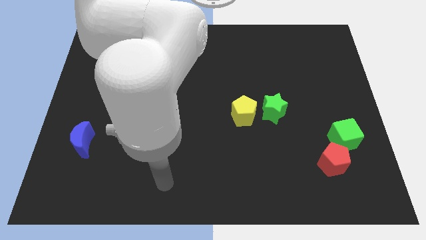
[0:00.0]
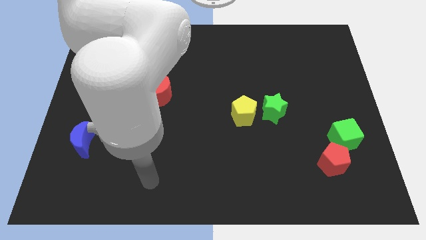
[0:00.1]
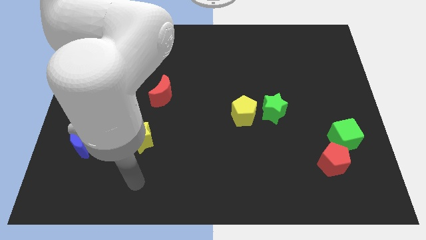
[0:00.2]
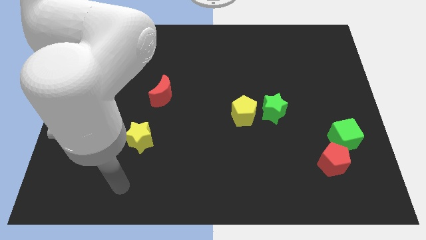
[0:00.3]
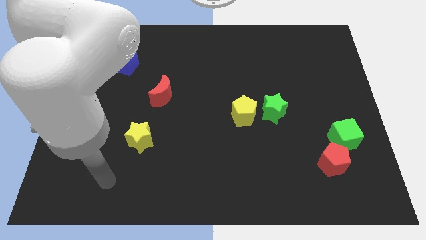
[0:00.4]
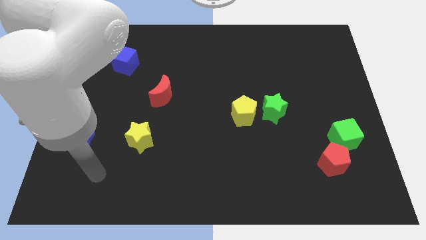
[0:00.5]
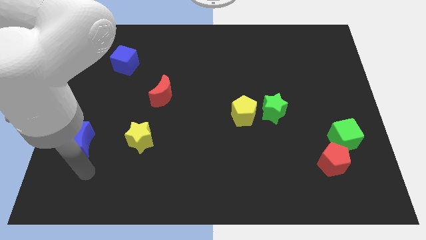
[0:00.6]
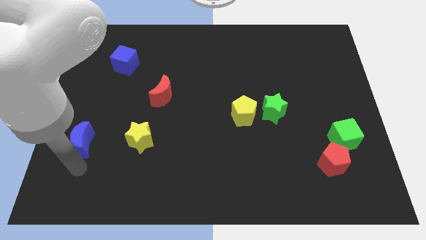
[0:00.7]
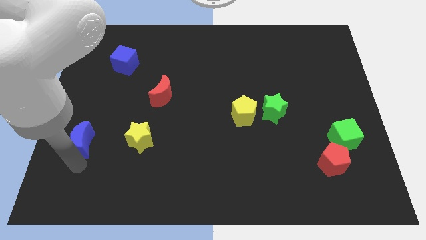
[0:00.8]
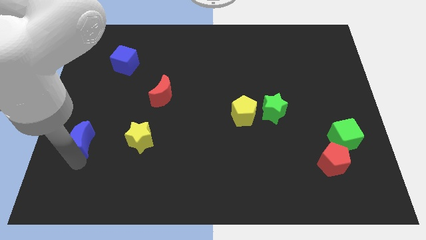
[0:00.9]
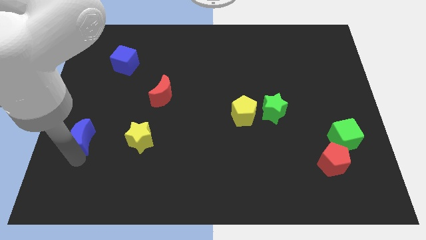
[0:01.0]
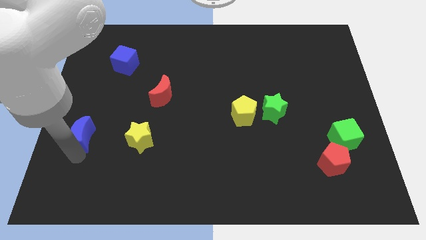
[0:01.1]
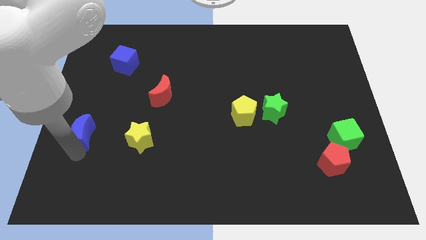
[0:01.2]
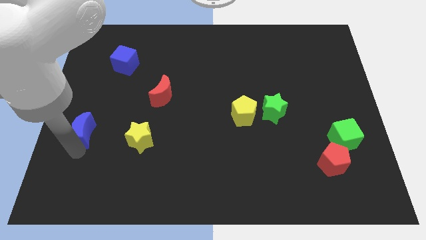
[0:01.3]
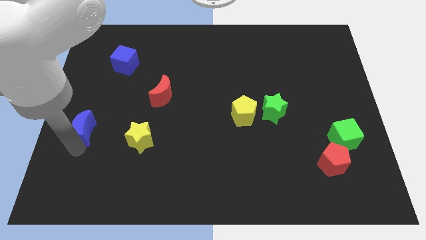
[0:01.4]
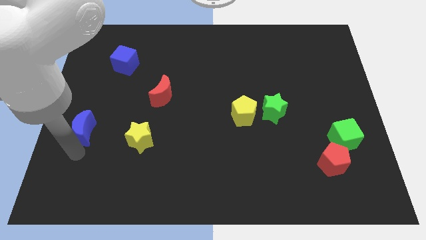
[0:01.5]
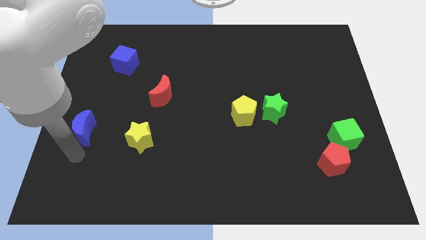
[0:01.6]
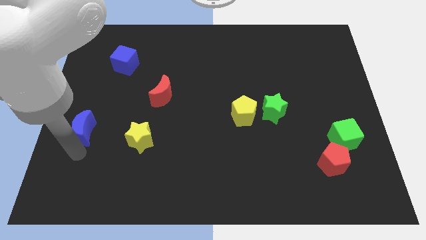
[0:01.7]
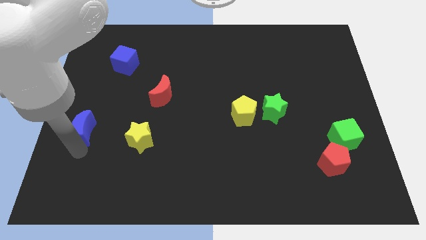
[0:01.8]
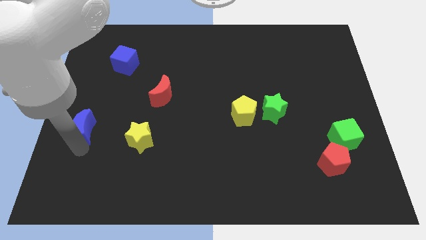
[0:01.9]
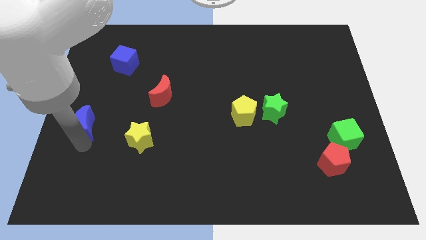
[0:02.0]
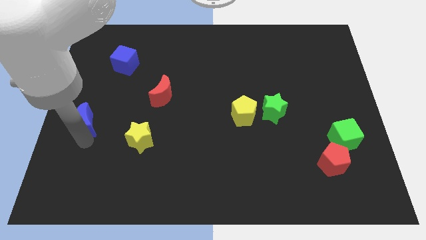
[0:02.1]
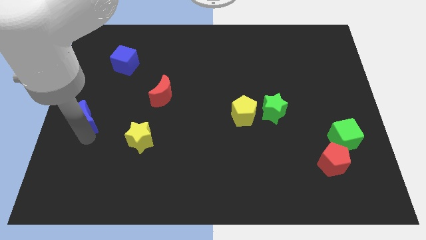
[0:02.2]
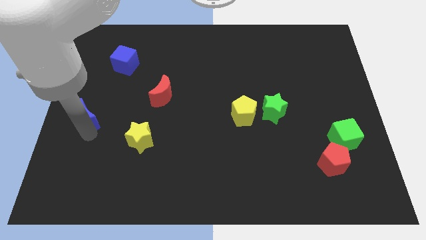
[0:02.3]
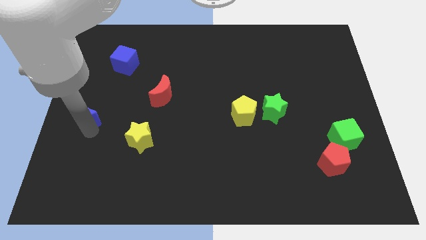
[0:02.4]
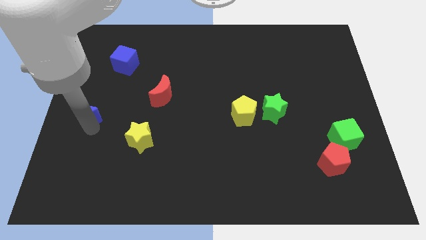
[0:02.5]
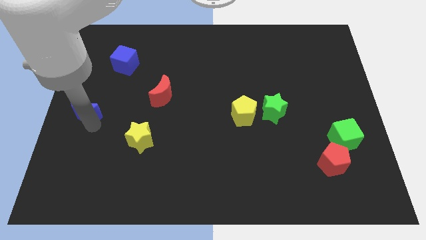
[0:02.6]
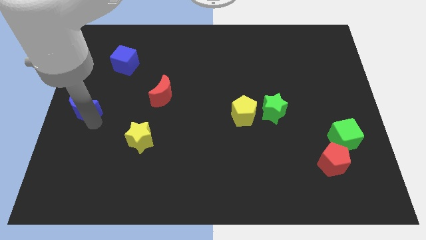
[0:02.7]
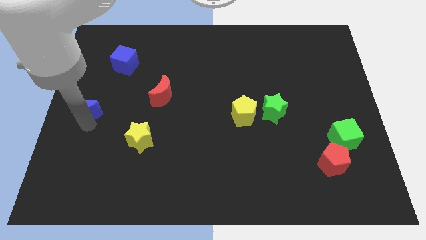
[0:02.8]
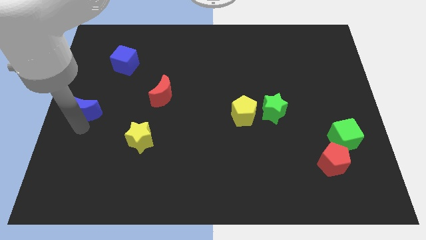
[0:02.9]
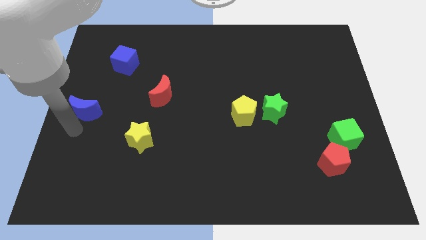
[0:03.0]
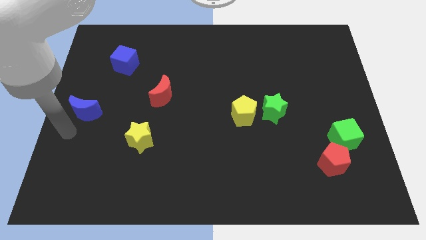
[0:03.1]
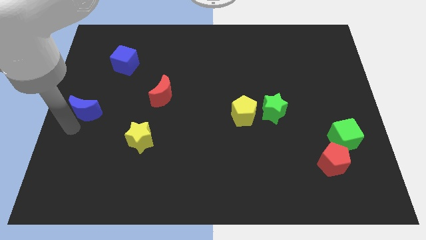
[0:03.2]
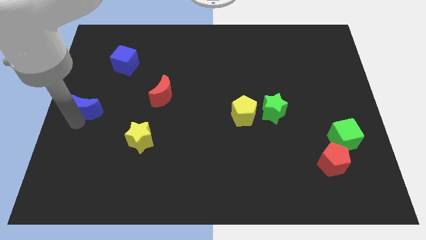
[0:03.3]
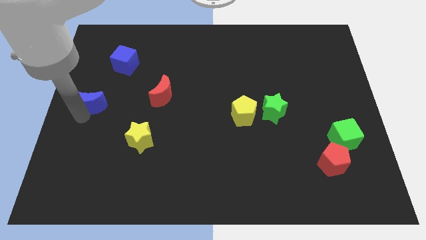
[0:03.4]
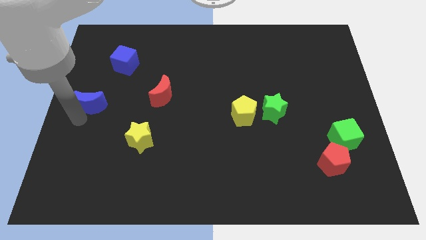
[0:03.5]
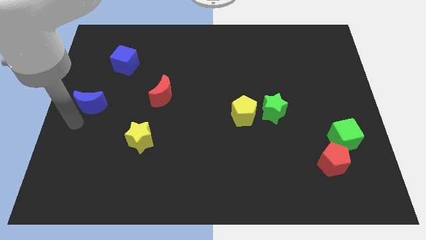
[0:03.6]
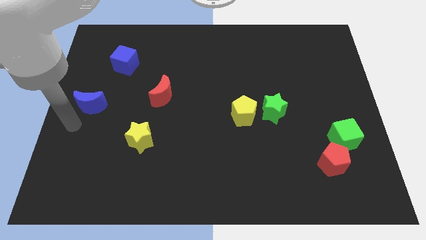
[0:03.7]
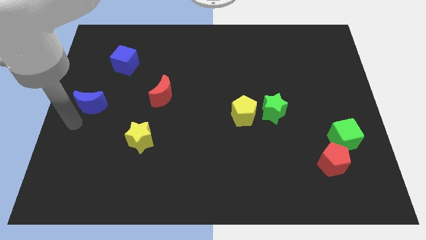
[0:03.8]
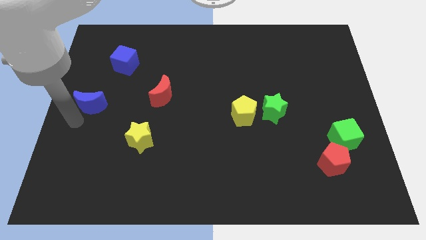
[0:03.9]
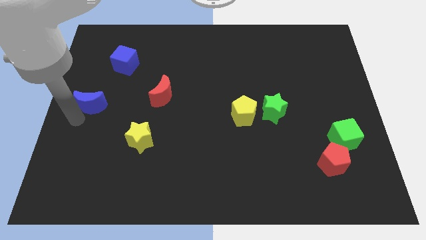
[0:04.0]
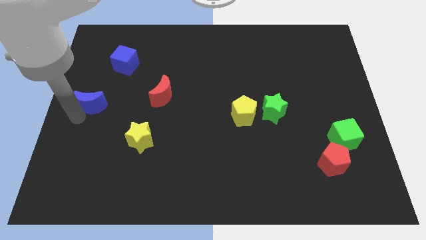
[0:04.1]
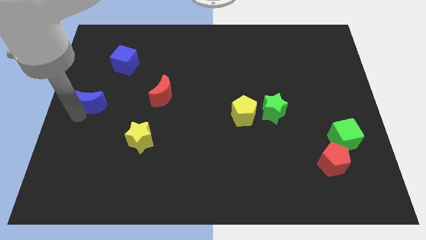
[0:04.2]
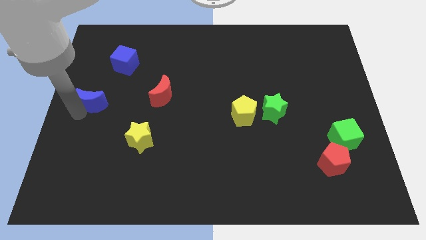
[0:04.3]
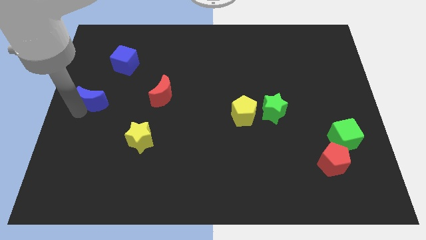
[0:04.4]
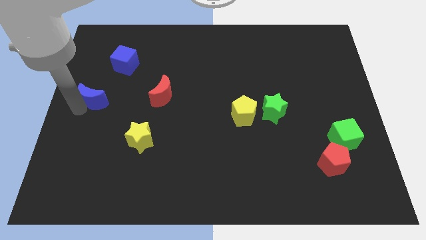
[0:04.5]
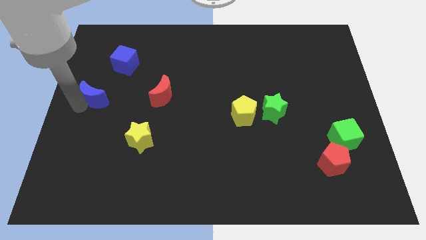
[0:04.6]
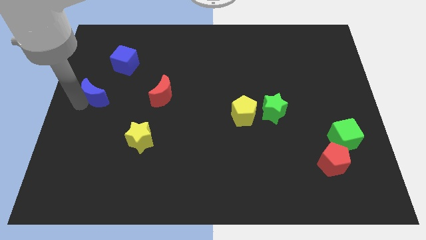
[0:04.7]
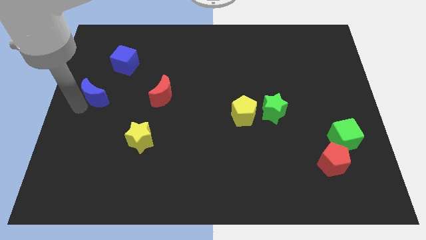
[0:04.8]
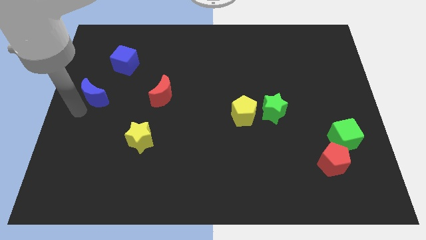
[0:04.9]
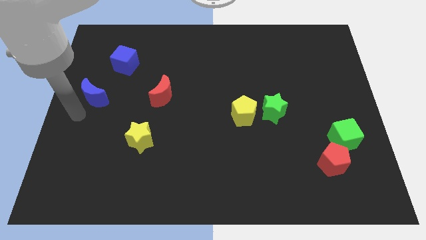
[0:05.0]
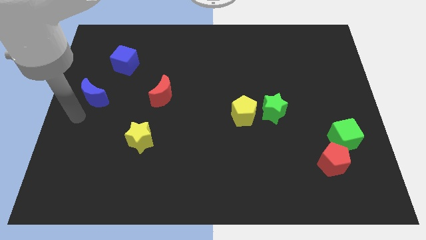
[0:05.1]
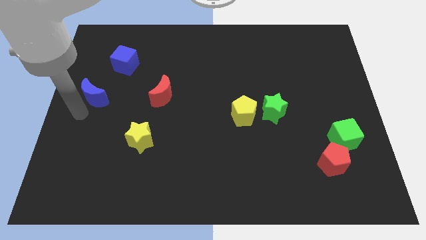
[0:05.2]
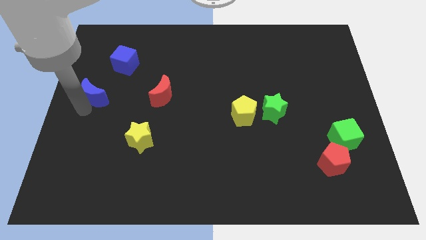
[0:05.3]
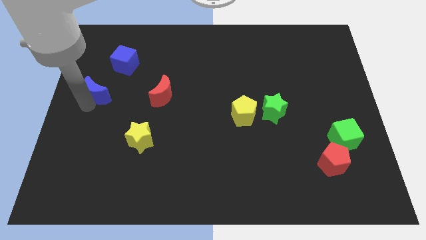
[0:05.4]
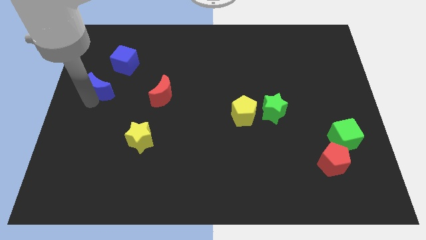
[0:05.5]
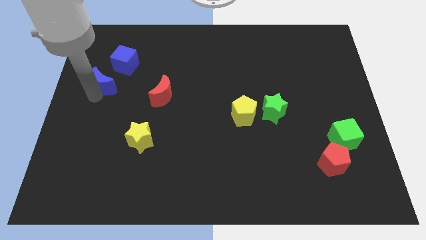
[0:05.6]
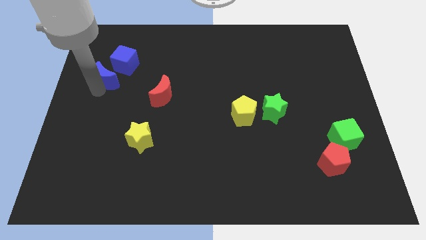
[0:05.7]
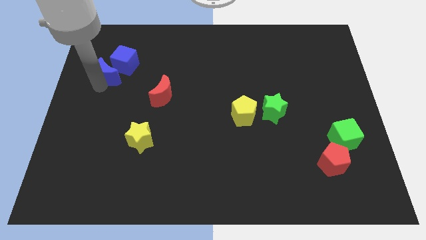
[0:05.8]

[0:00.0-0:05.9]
push the blue moon towards the blue cube

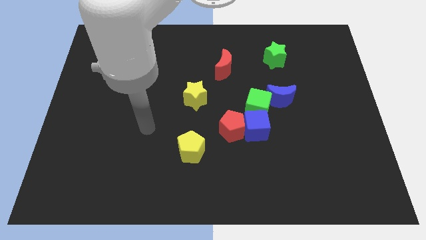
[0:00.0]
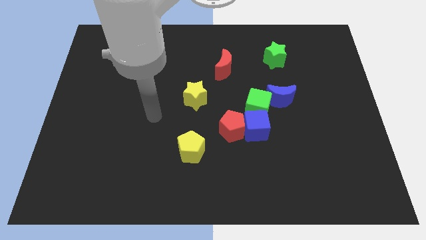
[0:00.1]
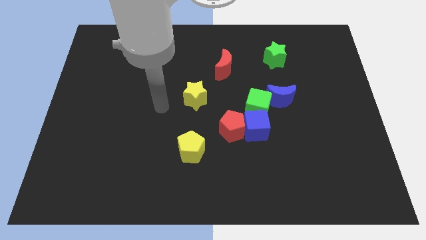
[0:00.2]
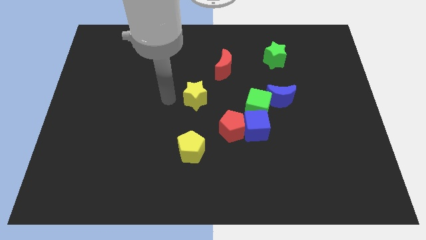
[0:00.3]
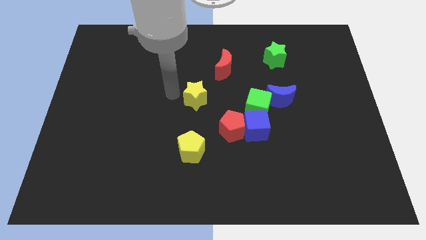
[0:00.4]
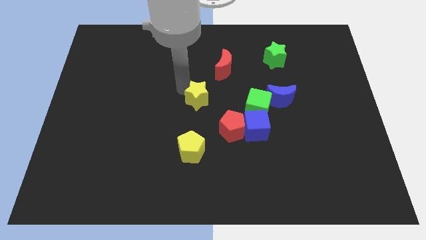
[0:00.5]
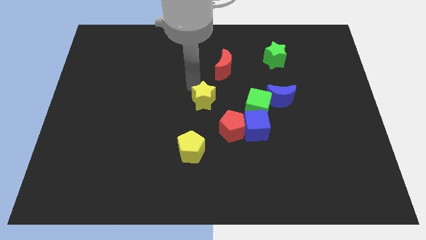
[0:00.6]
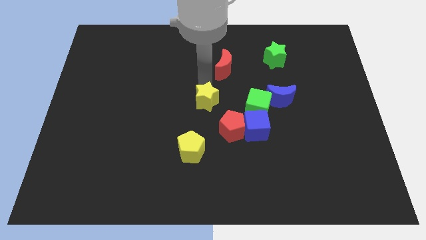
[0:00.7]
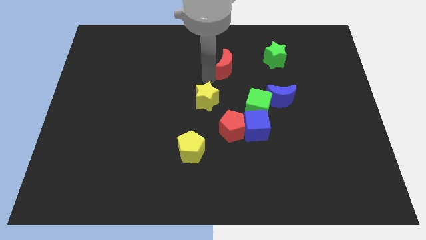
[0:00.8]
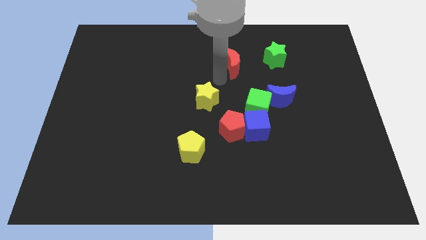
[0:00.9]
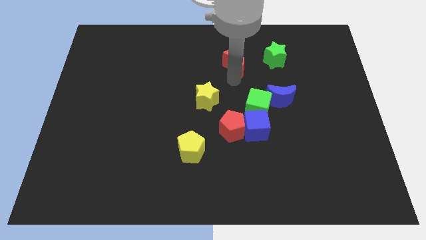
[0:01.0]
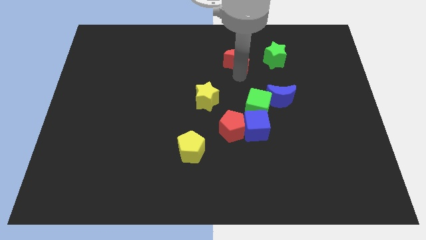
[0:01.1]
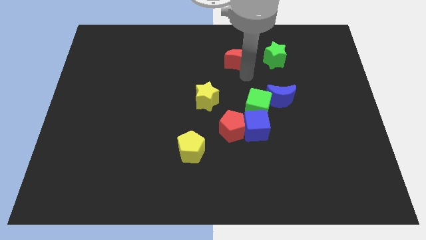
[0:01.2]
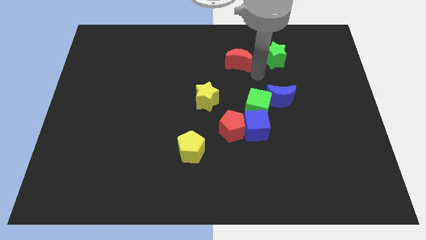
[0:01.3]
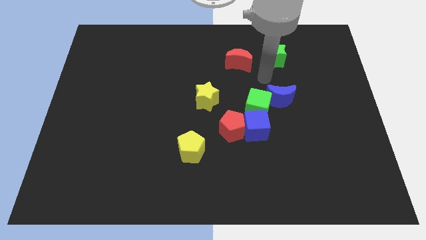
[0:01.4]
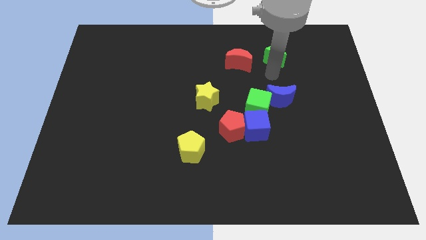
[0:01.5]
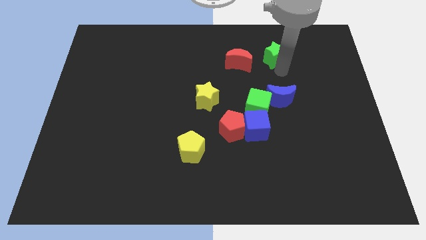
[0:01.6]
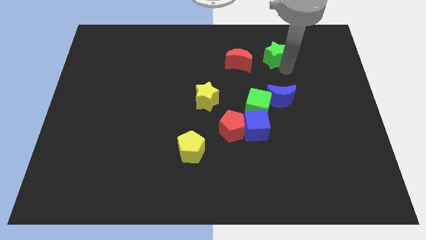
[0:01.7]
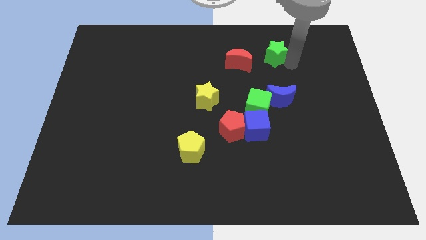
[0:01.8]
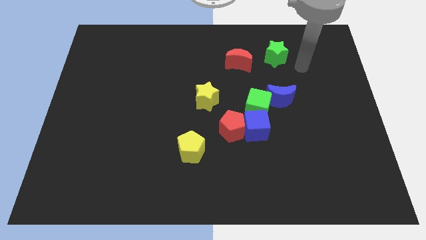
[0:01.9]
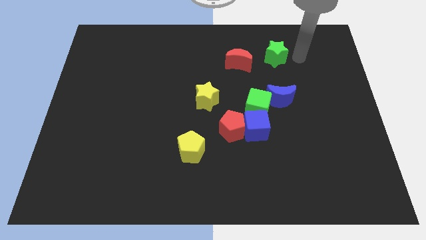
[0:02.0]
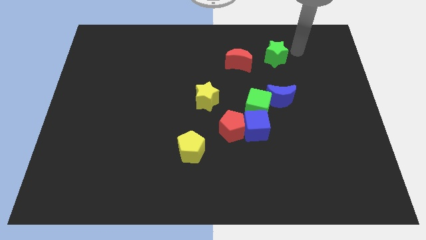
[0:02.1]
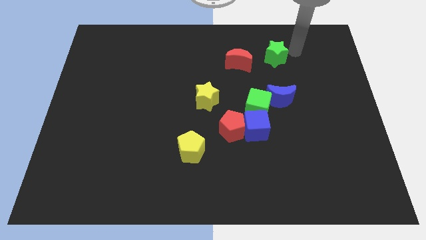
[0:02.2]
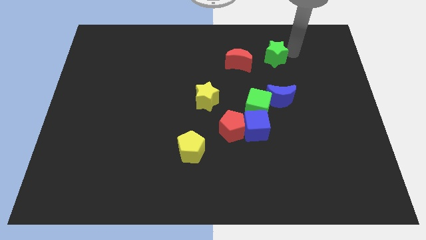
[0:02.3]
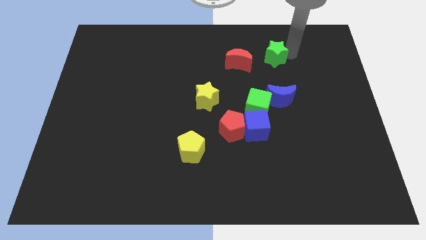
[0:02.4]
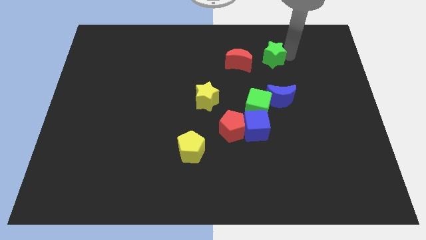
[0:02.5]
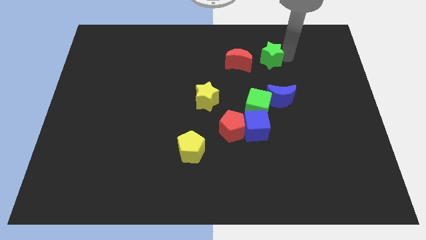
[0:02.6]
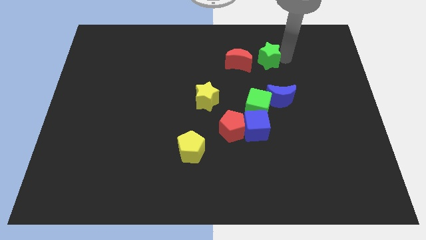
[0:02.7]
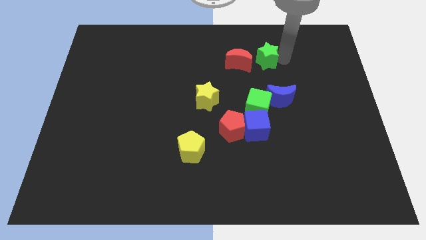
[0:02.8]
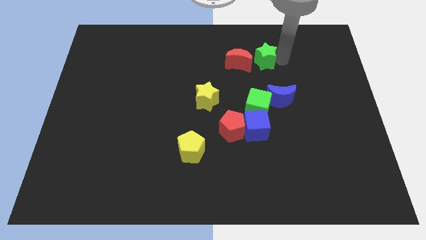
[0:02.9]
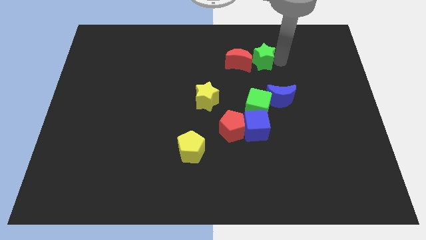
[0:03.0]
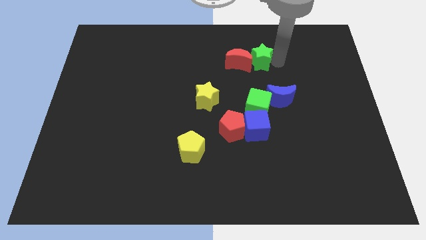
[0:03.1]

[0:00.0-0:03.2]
slide the green star to the red moon
